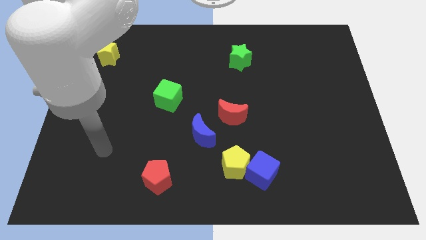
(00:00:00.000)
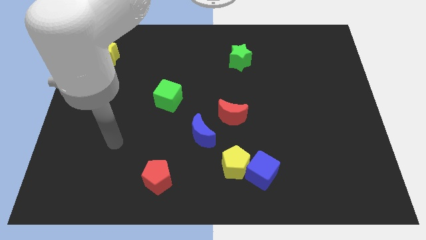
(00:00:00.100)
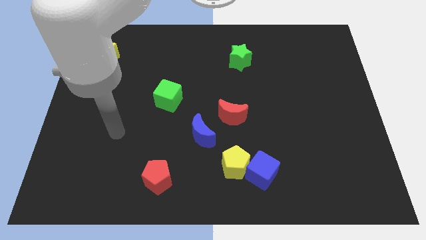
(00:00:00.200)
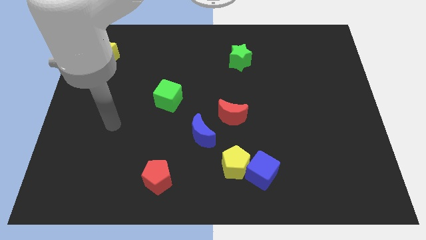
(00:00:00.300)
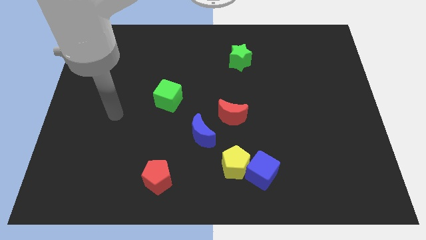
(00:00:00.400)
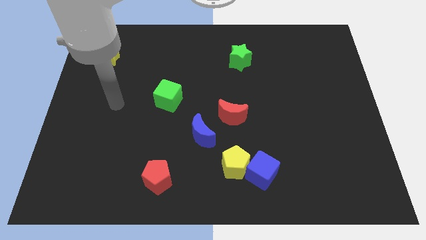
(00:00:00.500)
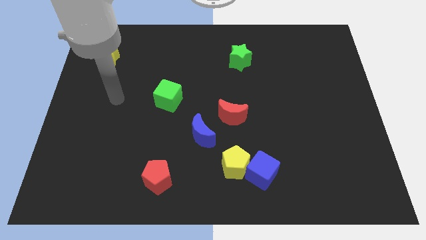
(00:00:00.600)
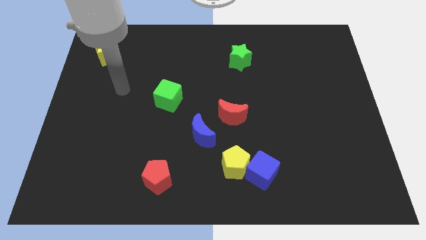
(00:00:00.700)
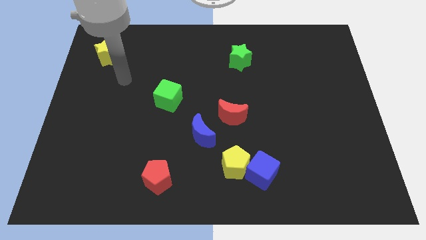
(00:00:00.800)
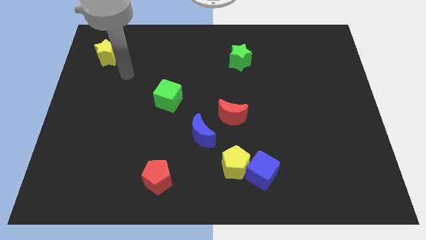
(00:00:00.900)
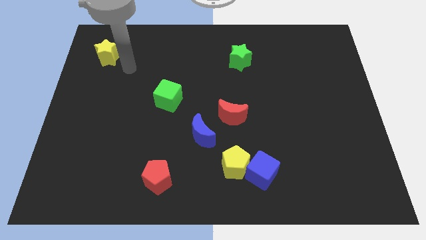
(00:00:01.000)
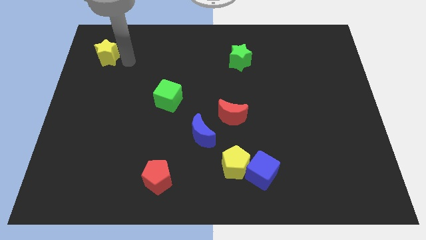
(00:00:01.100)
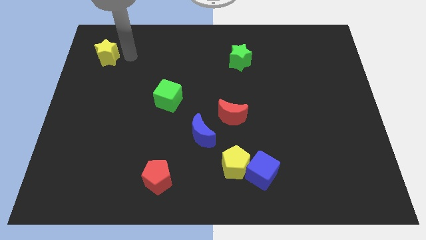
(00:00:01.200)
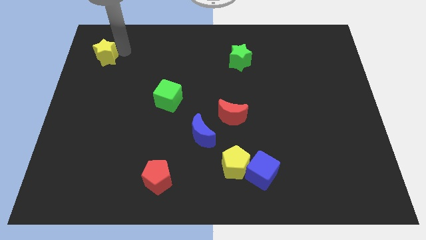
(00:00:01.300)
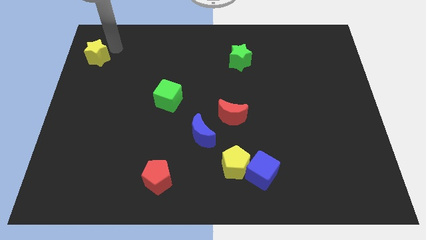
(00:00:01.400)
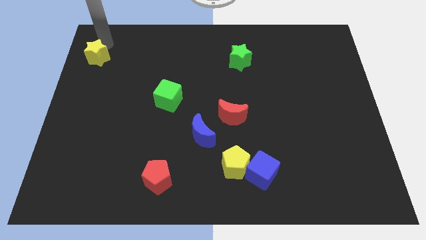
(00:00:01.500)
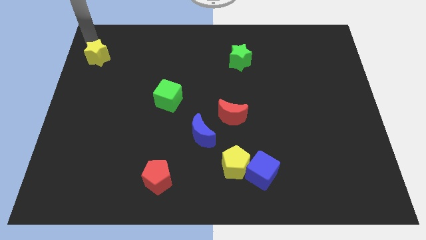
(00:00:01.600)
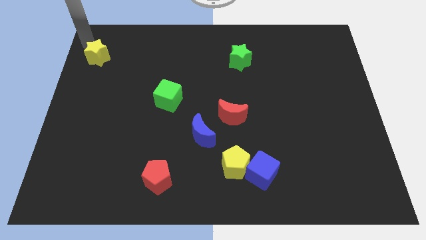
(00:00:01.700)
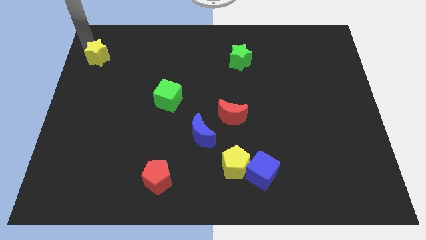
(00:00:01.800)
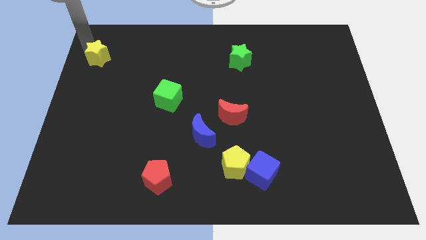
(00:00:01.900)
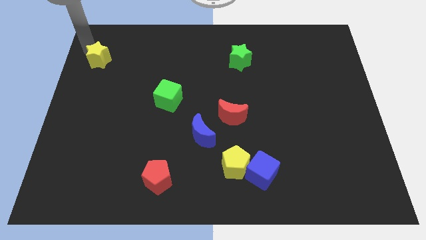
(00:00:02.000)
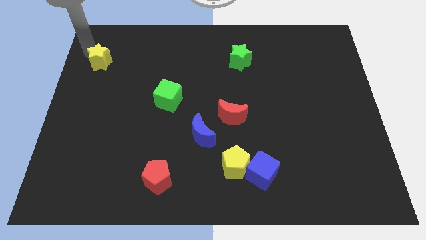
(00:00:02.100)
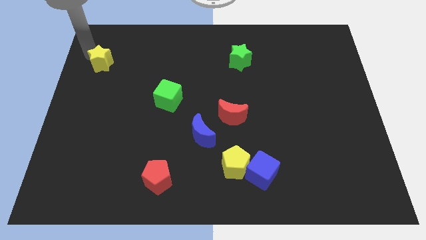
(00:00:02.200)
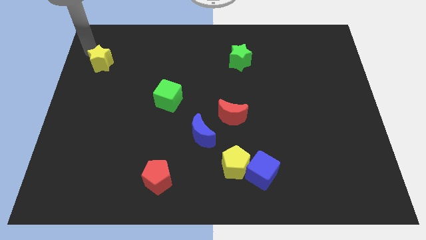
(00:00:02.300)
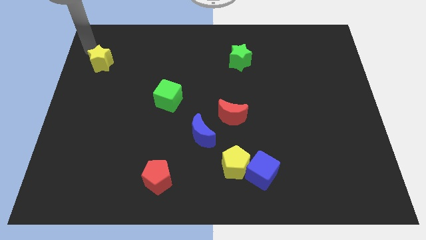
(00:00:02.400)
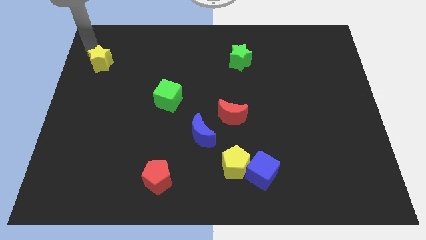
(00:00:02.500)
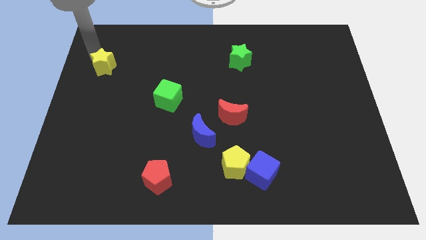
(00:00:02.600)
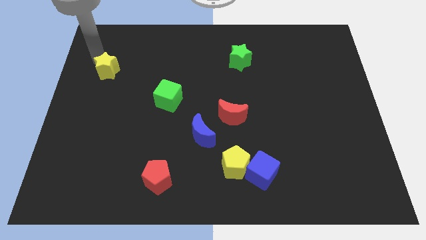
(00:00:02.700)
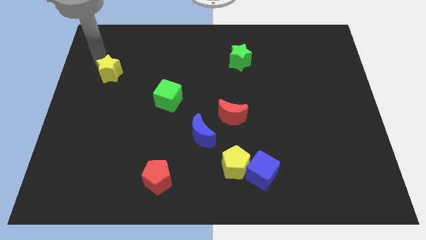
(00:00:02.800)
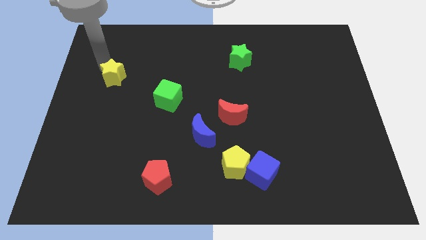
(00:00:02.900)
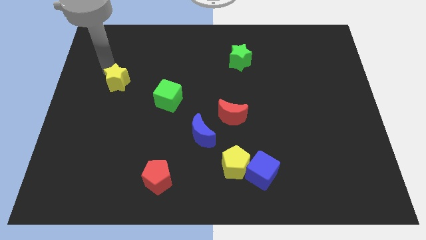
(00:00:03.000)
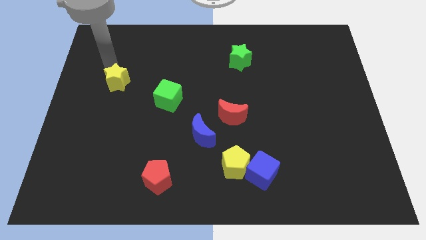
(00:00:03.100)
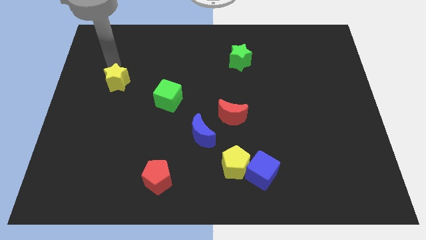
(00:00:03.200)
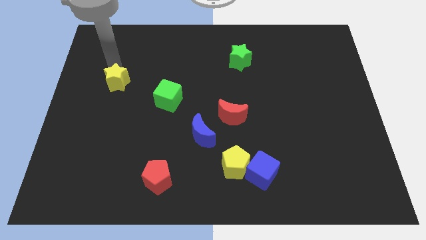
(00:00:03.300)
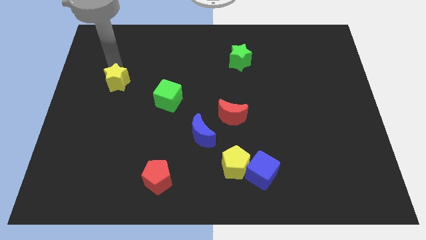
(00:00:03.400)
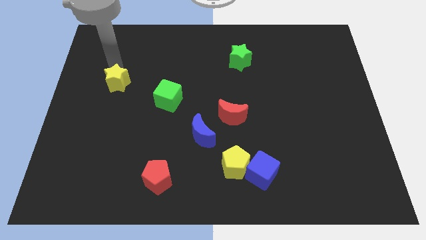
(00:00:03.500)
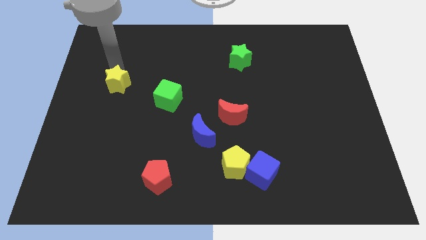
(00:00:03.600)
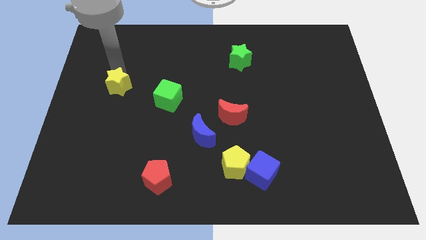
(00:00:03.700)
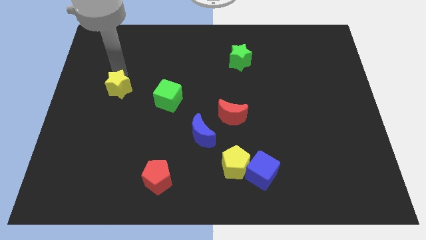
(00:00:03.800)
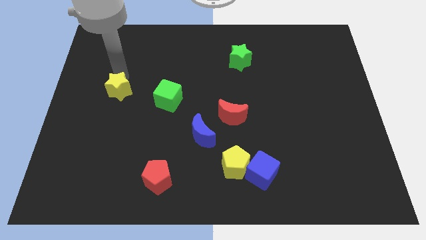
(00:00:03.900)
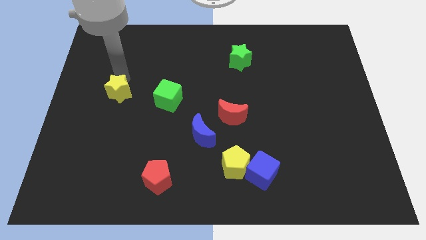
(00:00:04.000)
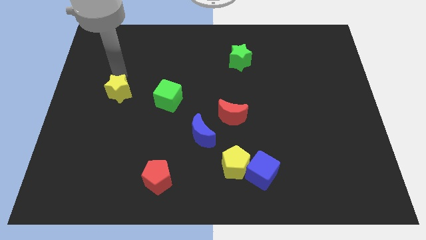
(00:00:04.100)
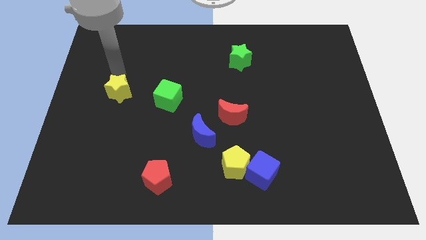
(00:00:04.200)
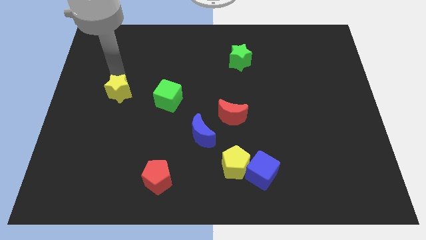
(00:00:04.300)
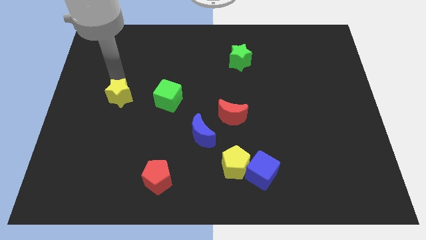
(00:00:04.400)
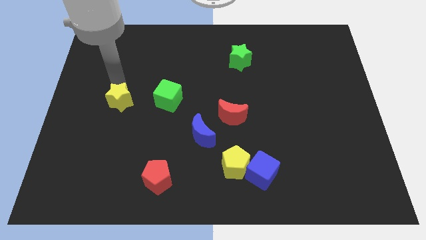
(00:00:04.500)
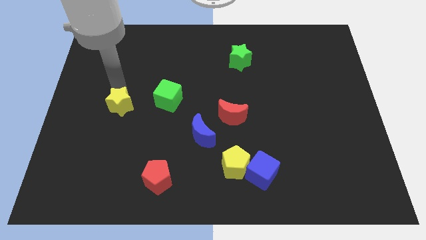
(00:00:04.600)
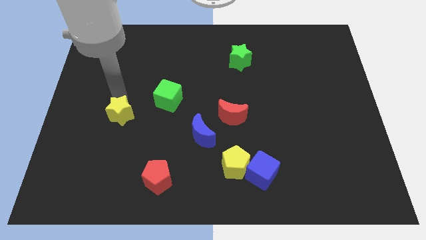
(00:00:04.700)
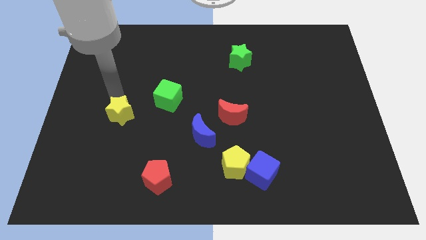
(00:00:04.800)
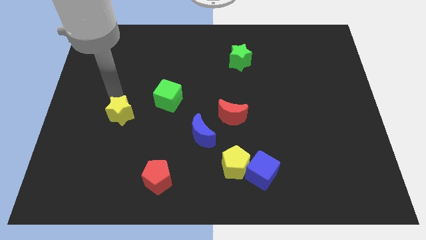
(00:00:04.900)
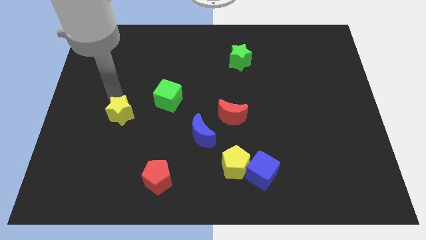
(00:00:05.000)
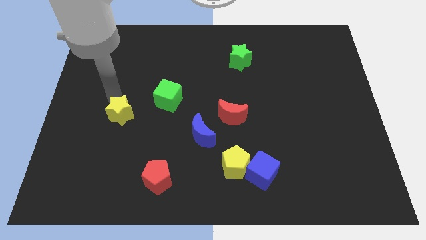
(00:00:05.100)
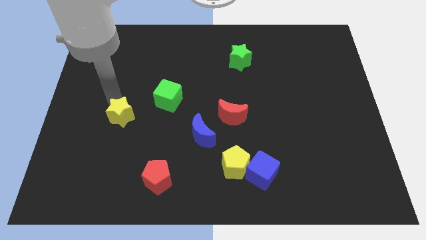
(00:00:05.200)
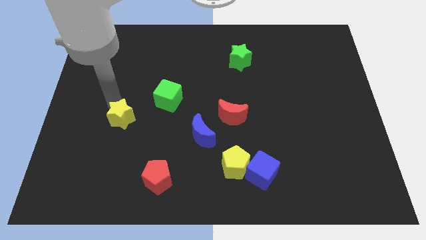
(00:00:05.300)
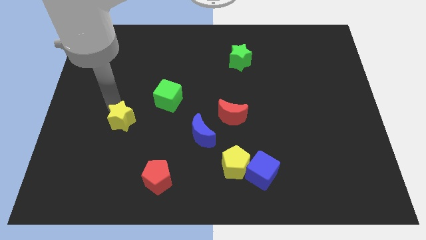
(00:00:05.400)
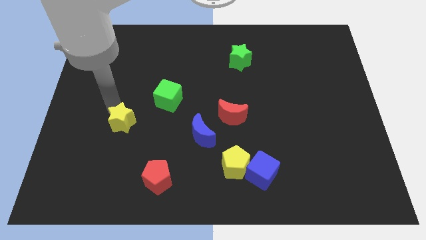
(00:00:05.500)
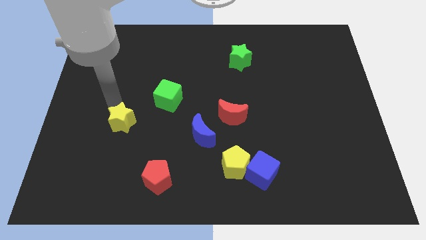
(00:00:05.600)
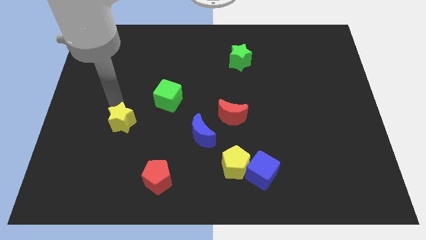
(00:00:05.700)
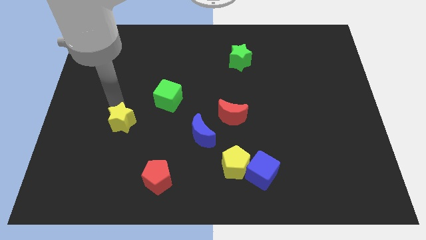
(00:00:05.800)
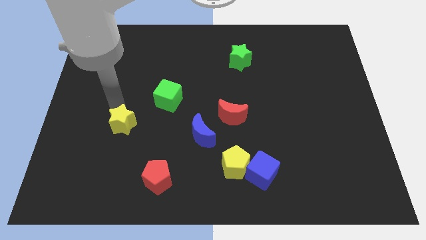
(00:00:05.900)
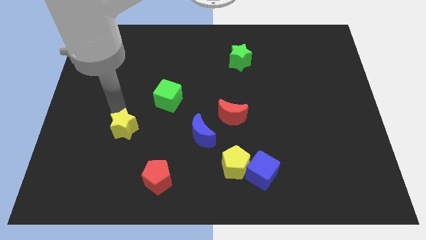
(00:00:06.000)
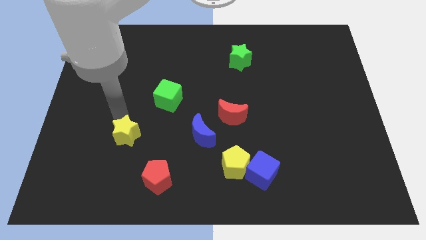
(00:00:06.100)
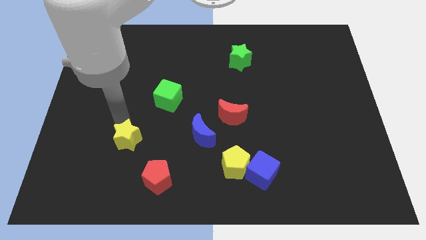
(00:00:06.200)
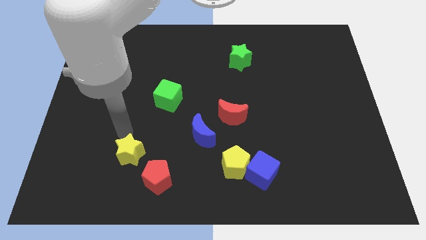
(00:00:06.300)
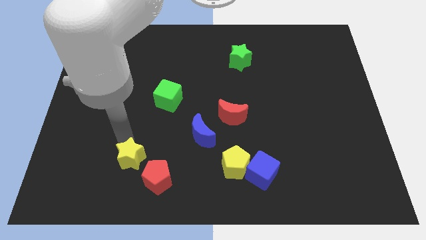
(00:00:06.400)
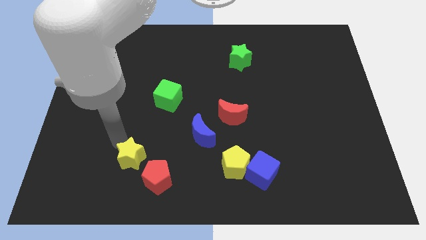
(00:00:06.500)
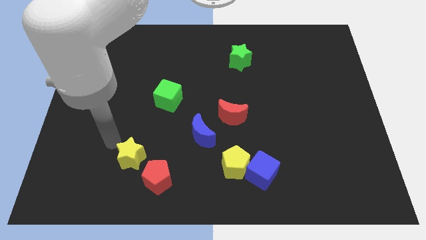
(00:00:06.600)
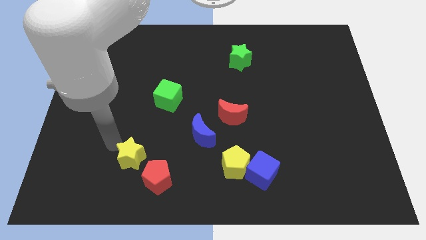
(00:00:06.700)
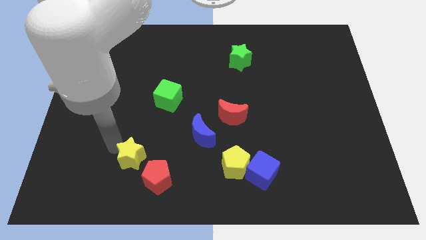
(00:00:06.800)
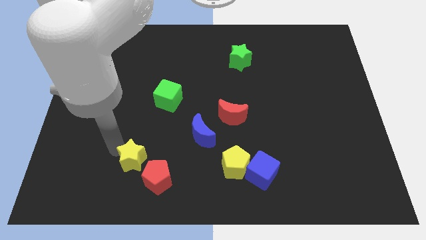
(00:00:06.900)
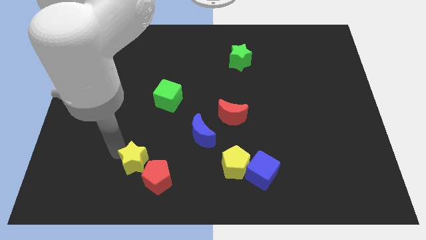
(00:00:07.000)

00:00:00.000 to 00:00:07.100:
slide the yellow star to the red pentagon

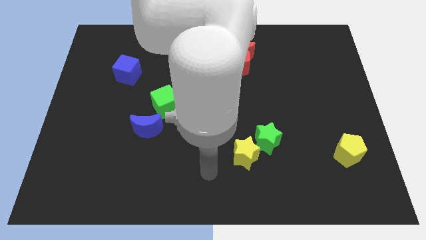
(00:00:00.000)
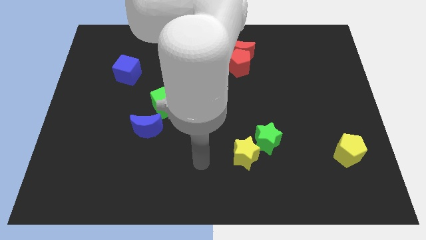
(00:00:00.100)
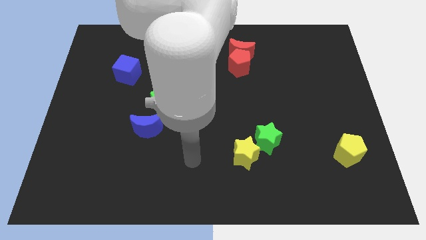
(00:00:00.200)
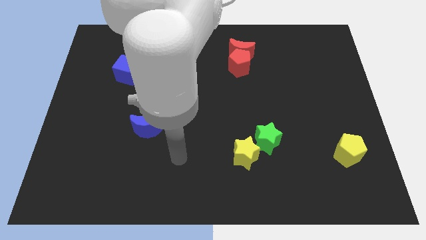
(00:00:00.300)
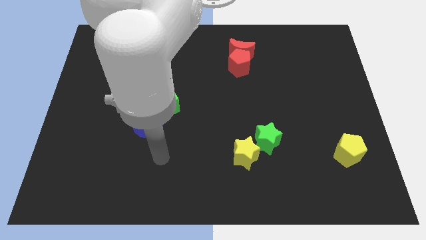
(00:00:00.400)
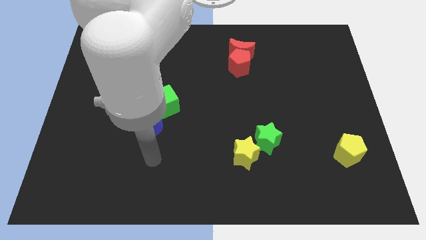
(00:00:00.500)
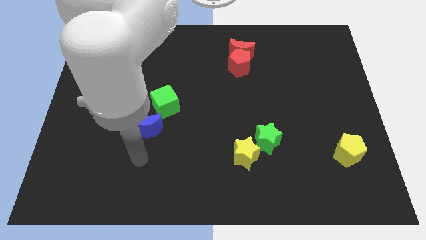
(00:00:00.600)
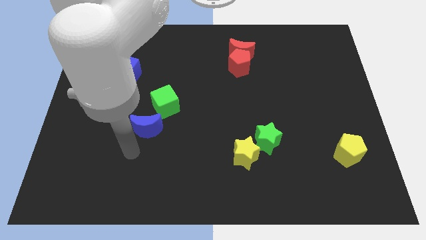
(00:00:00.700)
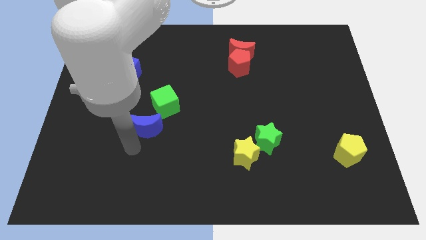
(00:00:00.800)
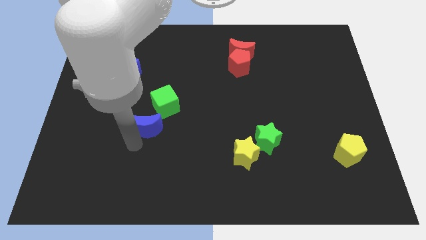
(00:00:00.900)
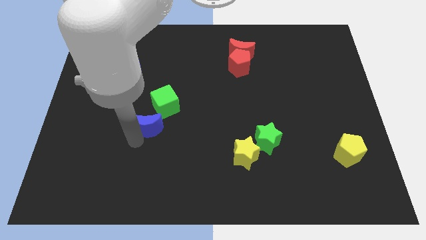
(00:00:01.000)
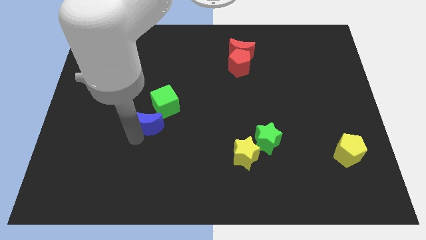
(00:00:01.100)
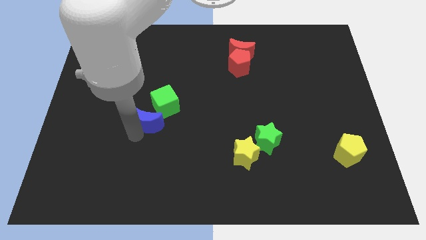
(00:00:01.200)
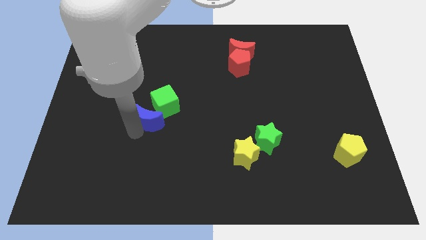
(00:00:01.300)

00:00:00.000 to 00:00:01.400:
put the blue moon next to the green cube

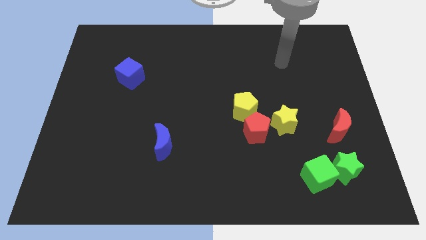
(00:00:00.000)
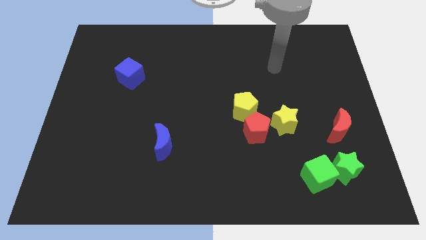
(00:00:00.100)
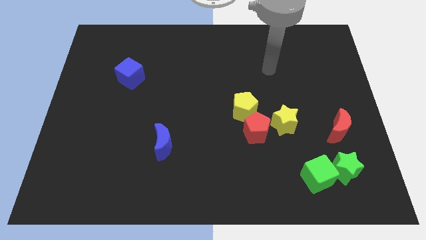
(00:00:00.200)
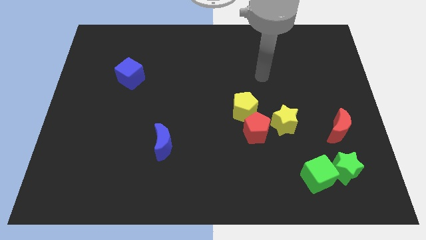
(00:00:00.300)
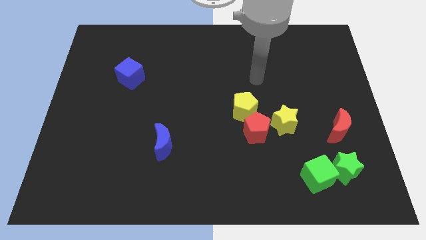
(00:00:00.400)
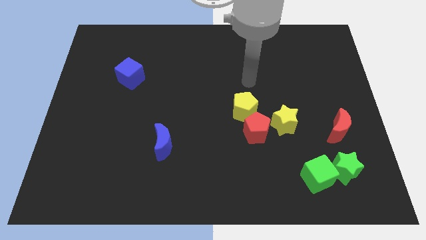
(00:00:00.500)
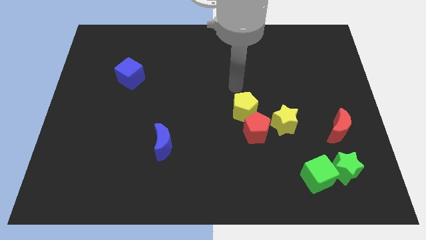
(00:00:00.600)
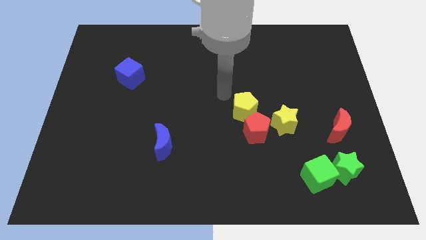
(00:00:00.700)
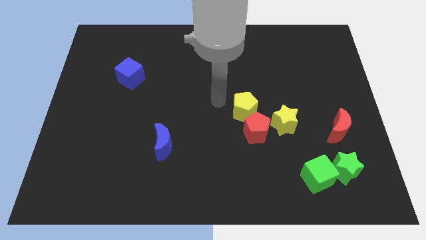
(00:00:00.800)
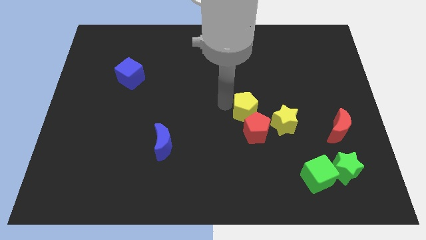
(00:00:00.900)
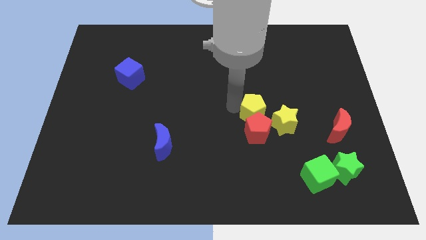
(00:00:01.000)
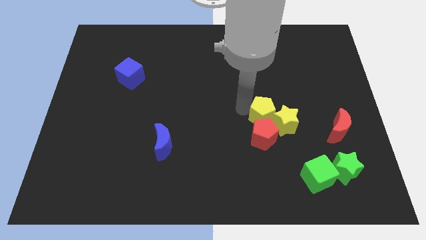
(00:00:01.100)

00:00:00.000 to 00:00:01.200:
slide the yellow pentagon towards the yellow star
